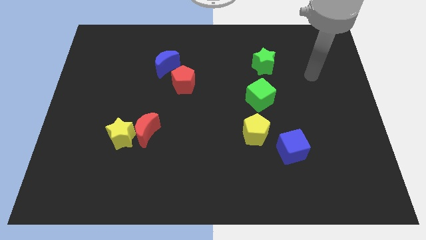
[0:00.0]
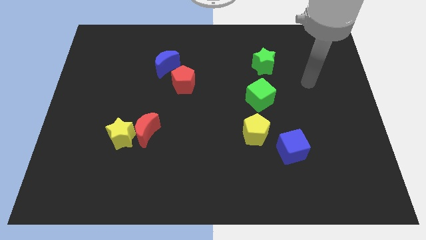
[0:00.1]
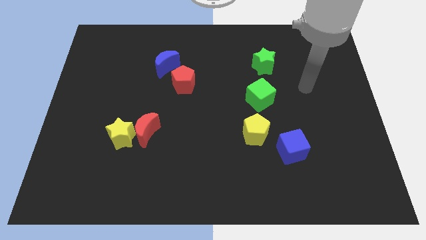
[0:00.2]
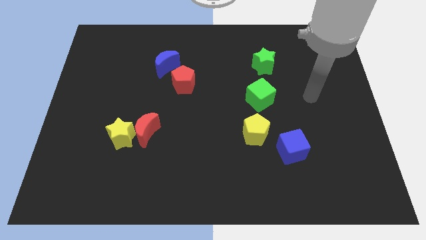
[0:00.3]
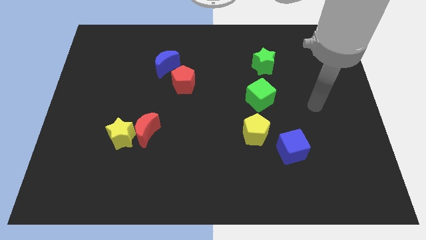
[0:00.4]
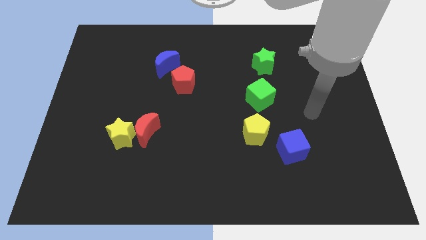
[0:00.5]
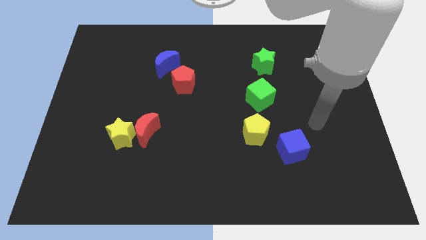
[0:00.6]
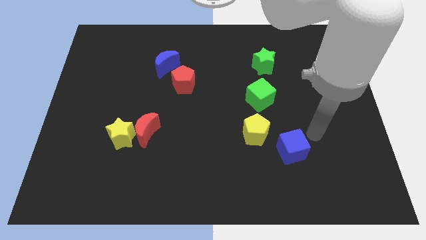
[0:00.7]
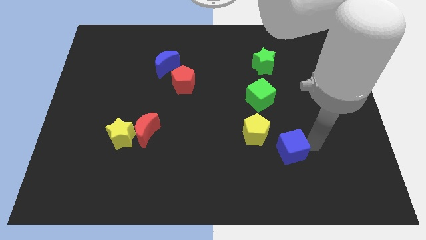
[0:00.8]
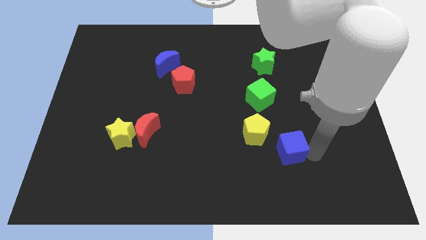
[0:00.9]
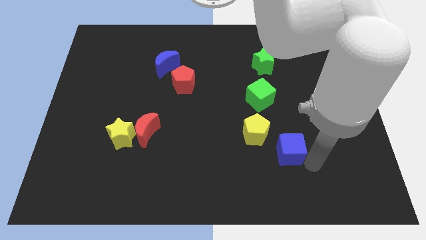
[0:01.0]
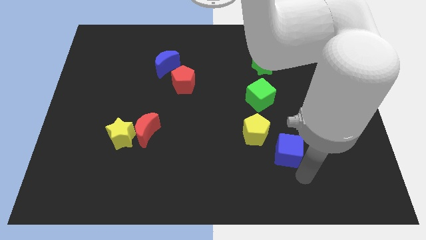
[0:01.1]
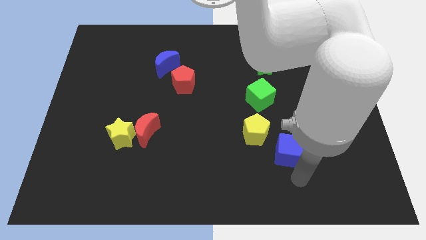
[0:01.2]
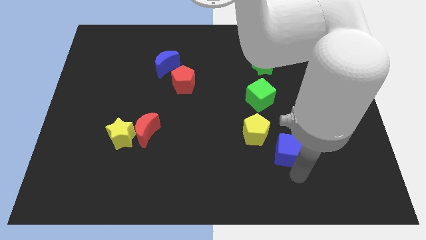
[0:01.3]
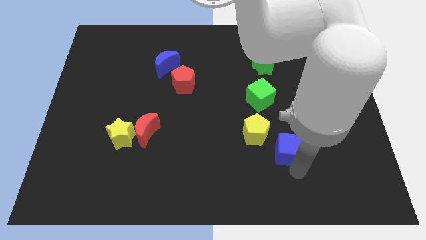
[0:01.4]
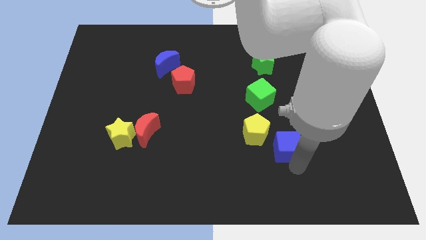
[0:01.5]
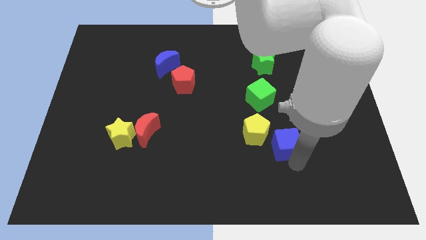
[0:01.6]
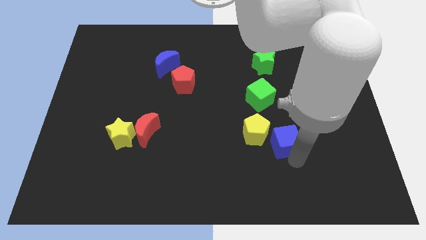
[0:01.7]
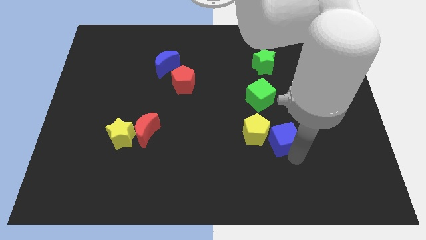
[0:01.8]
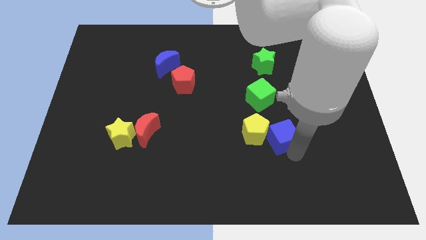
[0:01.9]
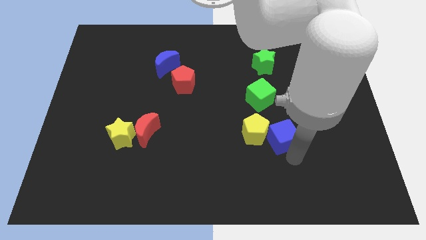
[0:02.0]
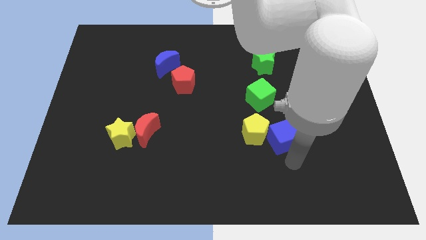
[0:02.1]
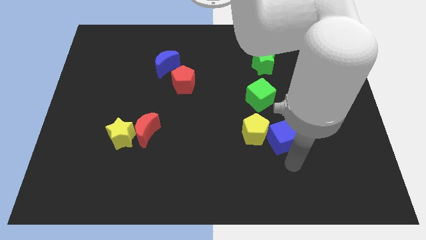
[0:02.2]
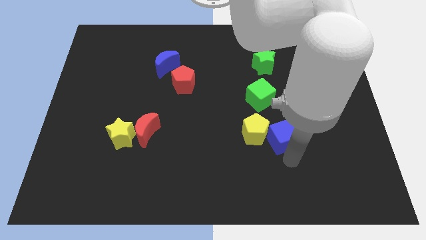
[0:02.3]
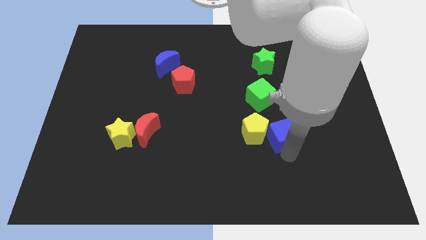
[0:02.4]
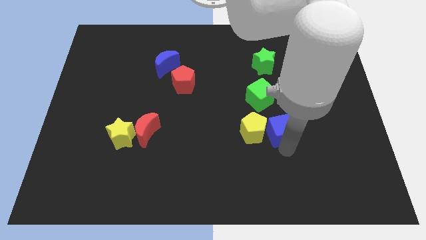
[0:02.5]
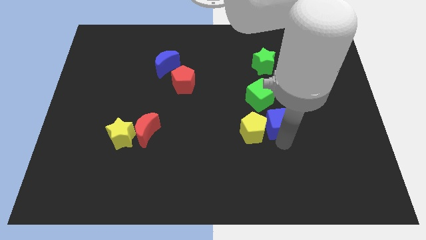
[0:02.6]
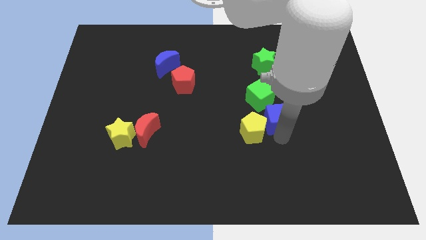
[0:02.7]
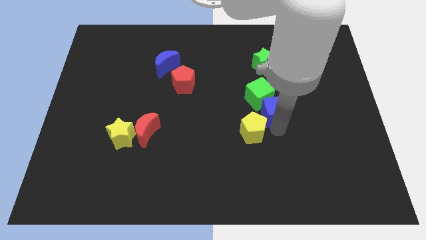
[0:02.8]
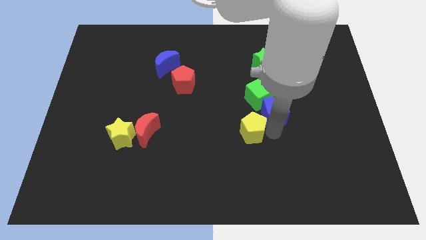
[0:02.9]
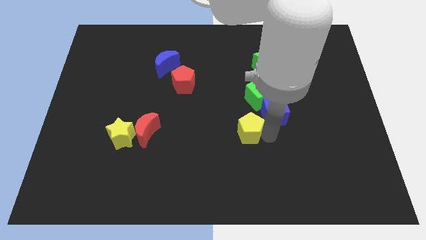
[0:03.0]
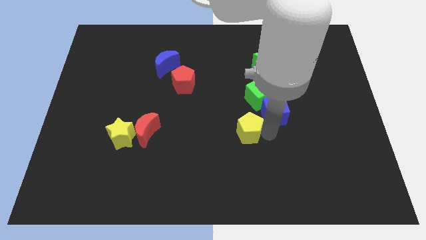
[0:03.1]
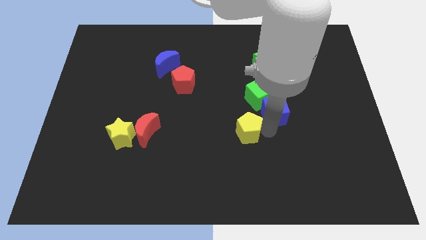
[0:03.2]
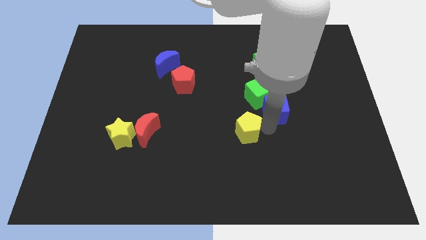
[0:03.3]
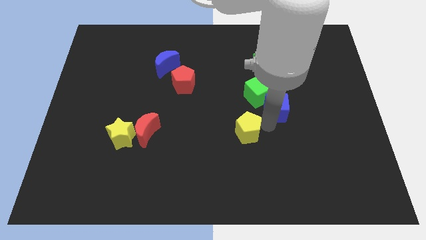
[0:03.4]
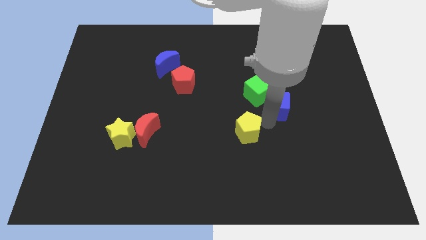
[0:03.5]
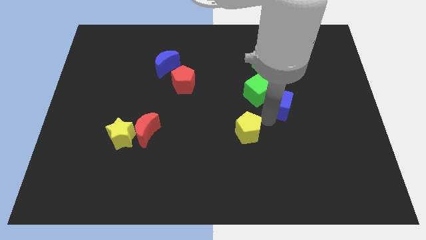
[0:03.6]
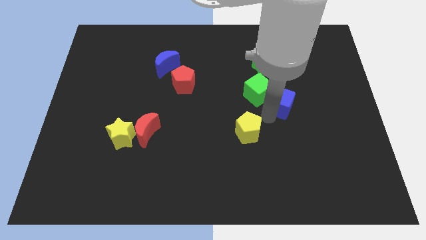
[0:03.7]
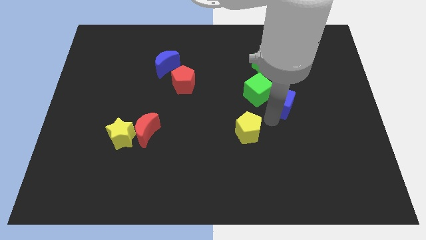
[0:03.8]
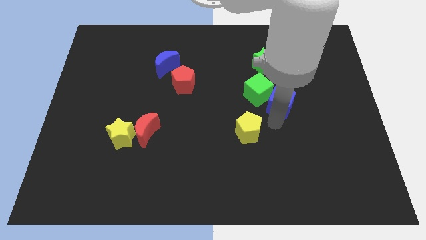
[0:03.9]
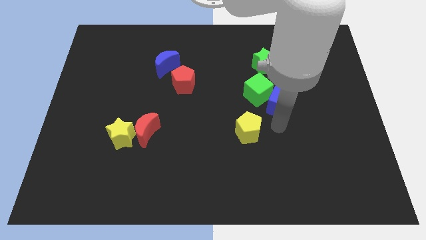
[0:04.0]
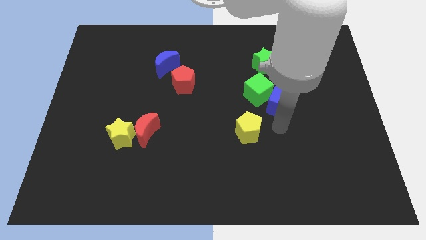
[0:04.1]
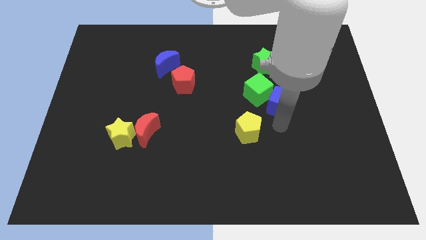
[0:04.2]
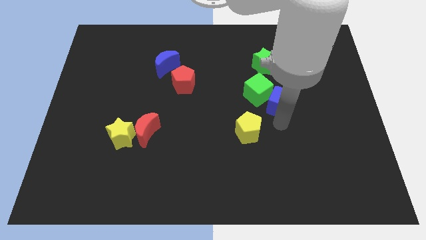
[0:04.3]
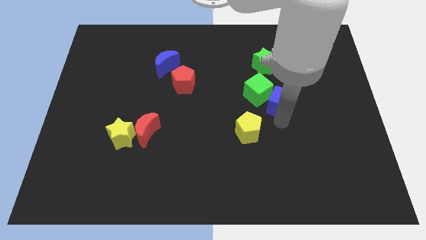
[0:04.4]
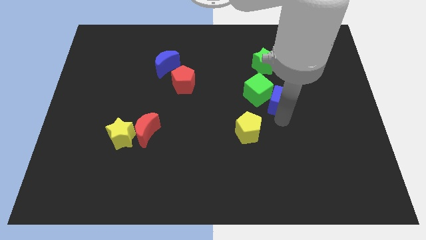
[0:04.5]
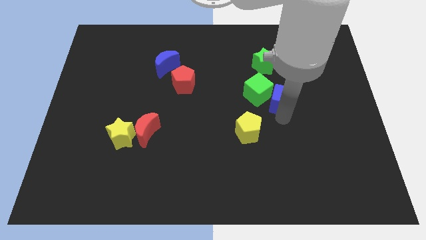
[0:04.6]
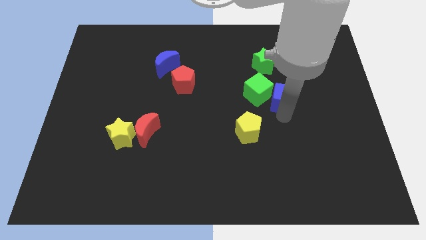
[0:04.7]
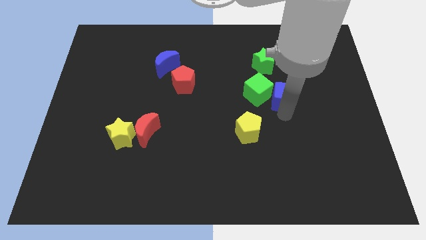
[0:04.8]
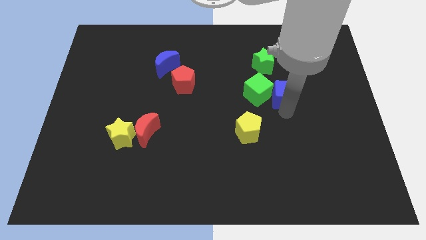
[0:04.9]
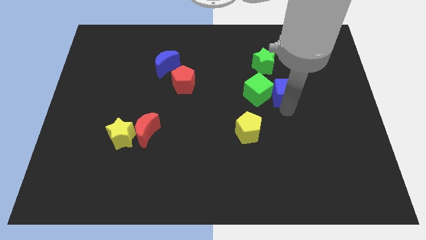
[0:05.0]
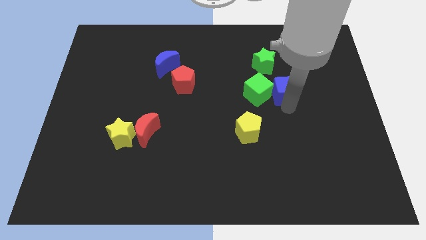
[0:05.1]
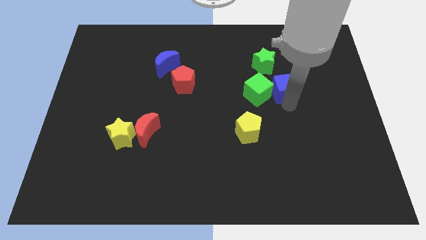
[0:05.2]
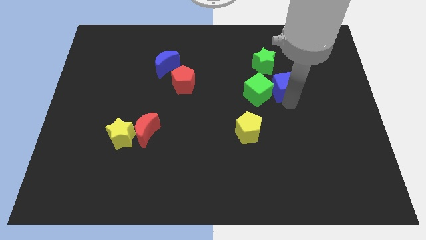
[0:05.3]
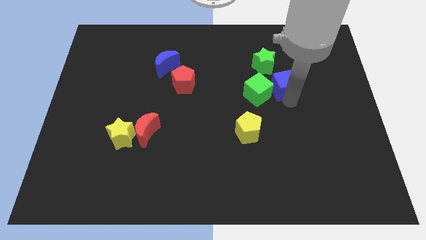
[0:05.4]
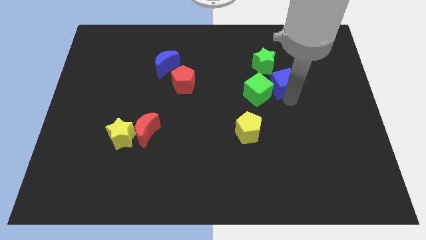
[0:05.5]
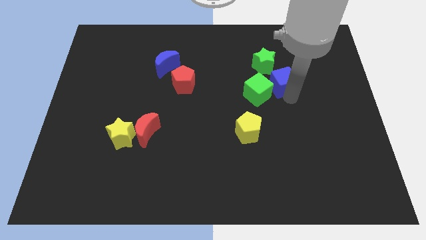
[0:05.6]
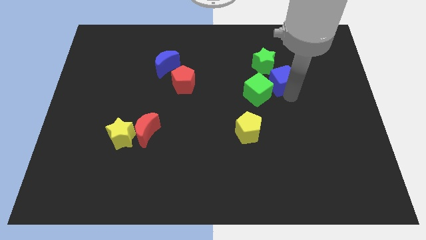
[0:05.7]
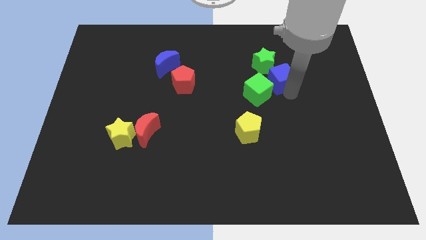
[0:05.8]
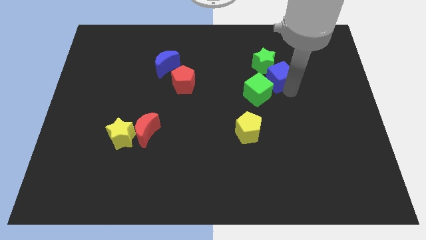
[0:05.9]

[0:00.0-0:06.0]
move the blue cube towards the green star

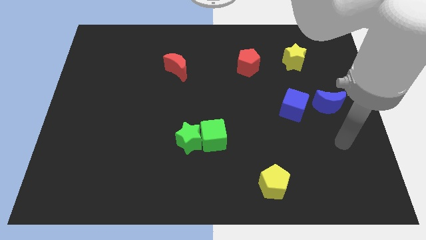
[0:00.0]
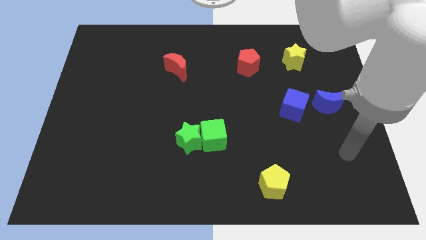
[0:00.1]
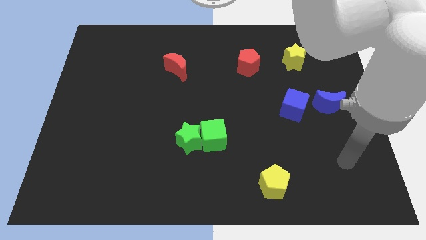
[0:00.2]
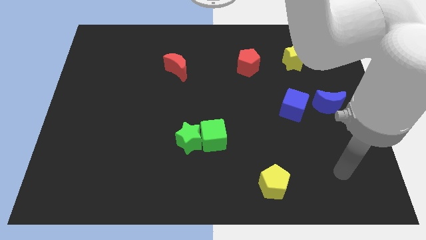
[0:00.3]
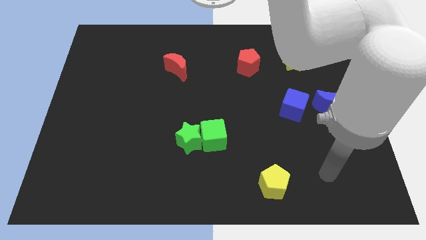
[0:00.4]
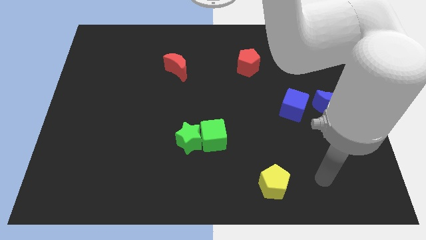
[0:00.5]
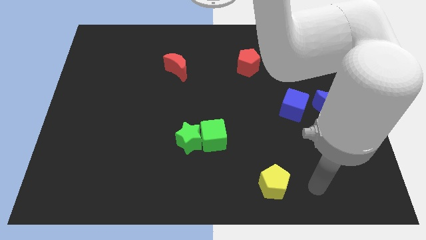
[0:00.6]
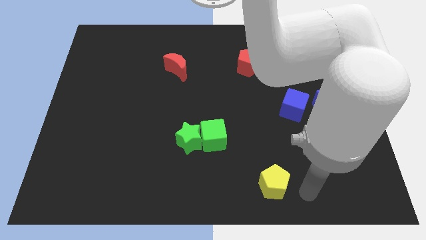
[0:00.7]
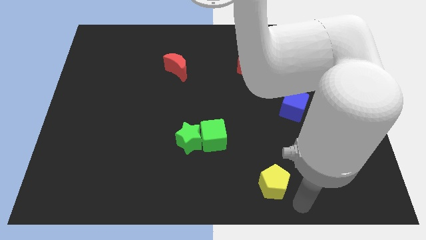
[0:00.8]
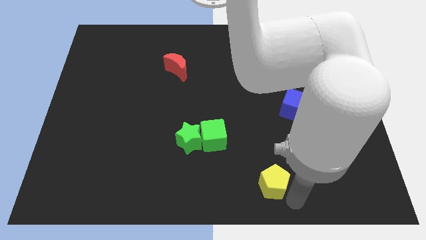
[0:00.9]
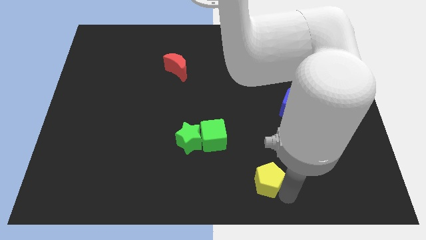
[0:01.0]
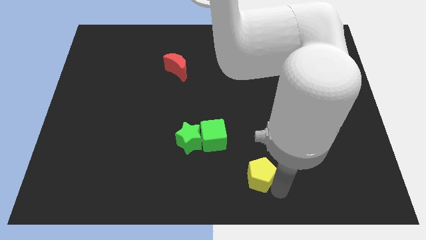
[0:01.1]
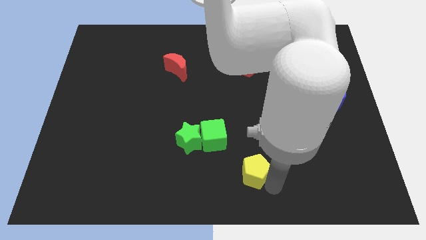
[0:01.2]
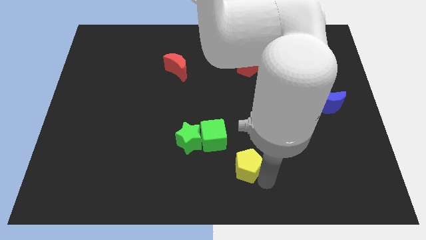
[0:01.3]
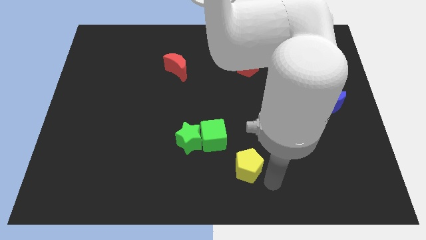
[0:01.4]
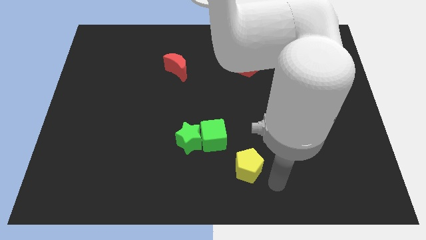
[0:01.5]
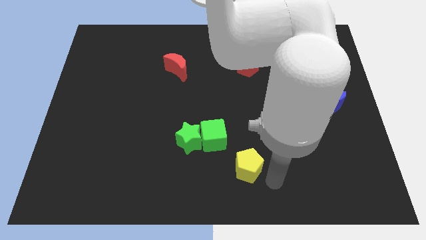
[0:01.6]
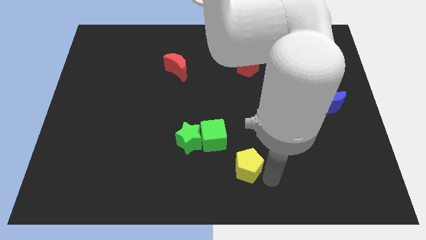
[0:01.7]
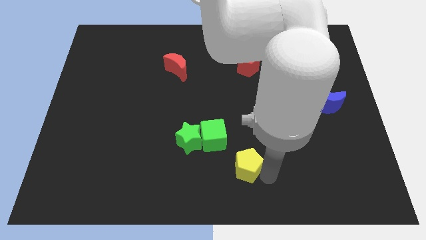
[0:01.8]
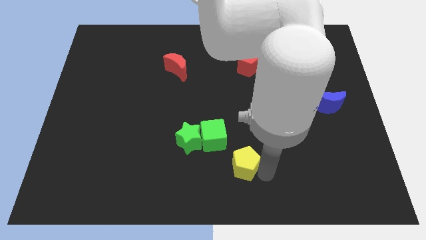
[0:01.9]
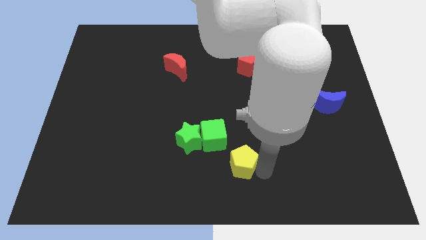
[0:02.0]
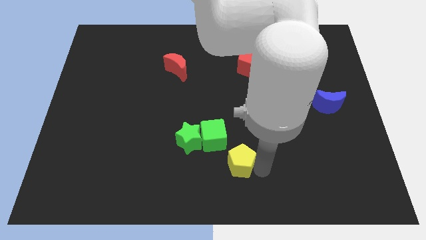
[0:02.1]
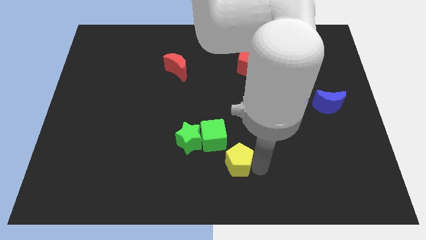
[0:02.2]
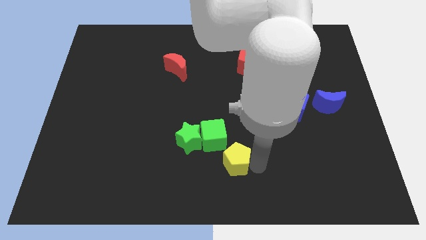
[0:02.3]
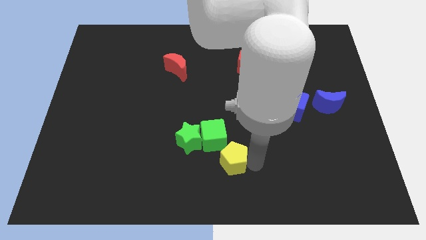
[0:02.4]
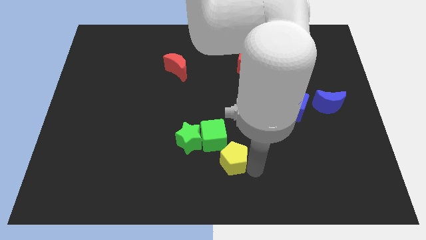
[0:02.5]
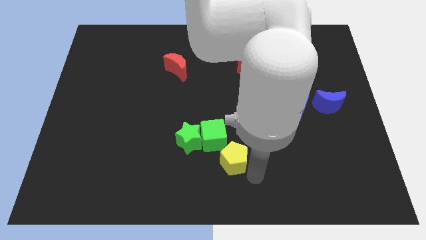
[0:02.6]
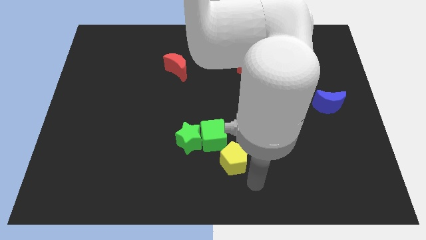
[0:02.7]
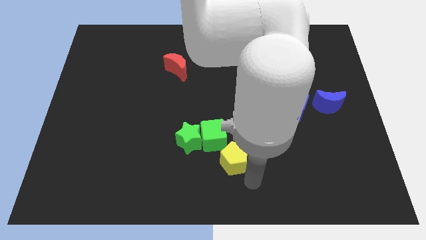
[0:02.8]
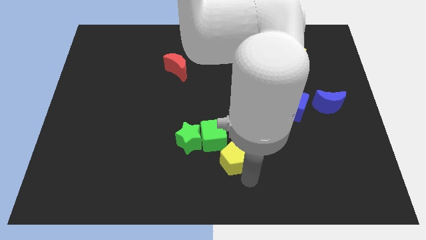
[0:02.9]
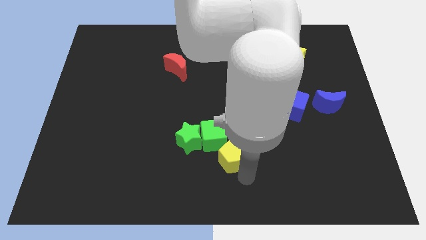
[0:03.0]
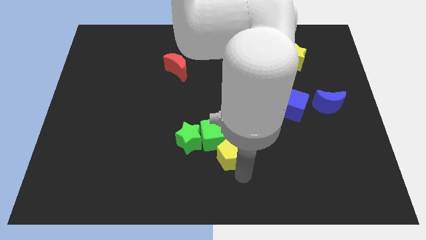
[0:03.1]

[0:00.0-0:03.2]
push the yellow pentagon next to the green cube
